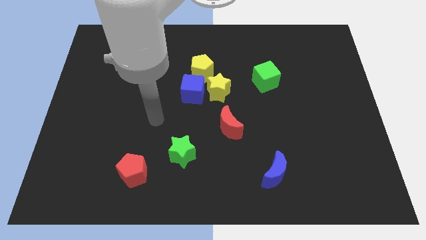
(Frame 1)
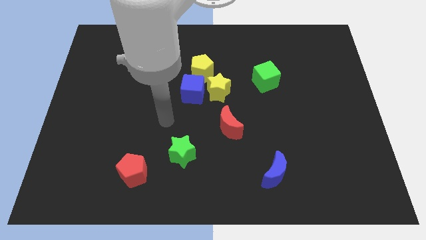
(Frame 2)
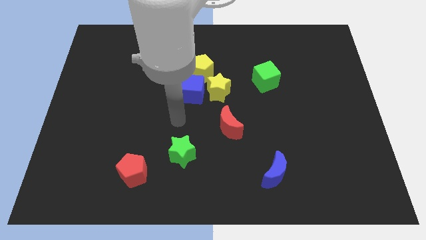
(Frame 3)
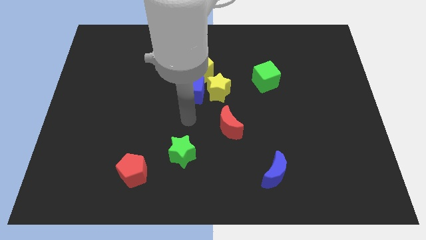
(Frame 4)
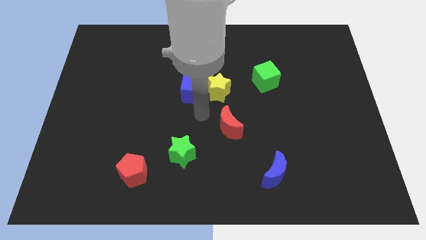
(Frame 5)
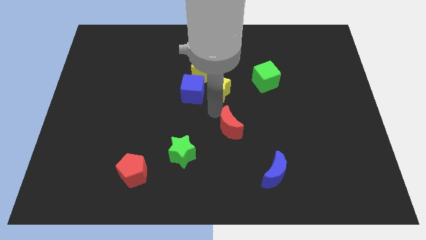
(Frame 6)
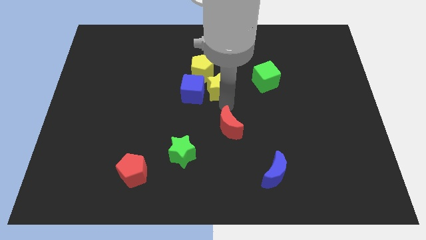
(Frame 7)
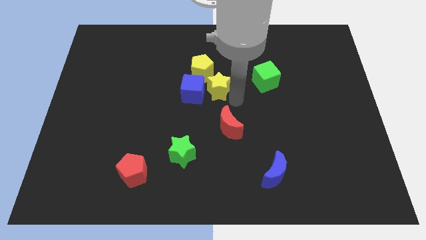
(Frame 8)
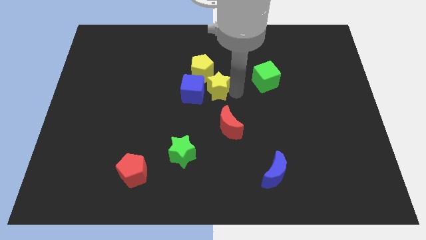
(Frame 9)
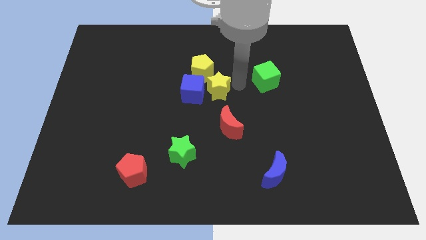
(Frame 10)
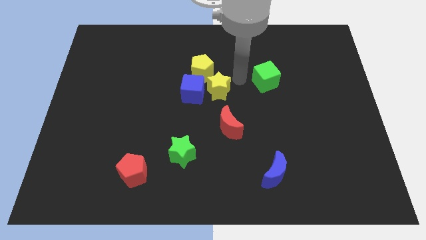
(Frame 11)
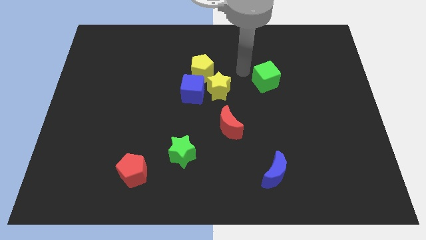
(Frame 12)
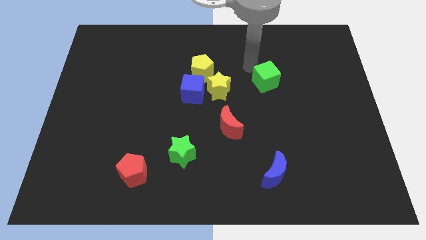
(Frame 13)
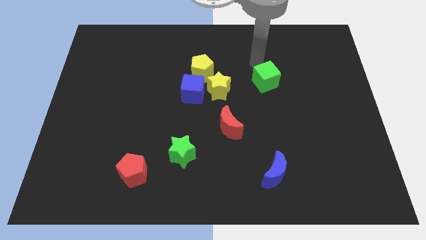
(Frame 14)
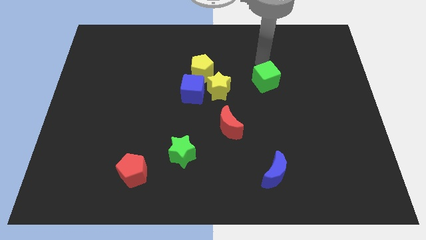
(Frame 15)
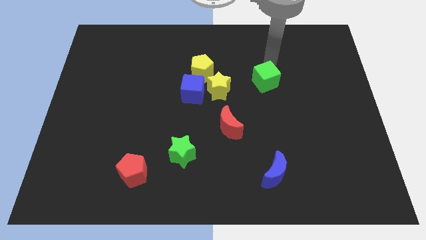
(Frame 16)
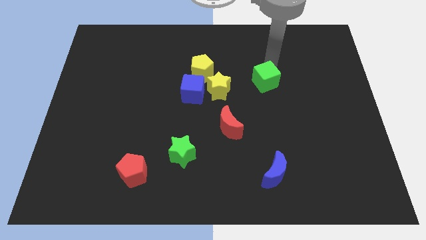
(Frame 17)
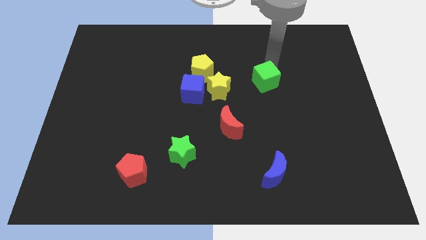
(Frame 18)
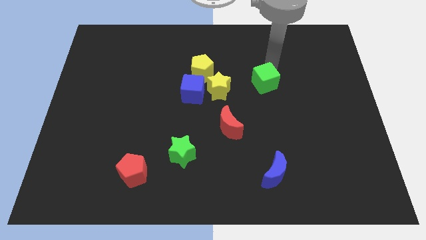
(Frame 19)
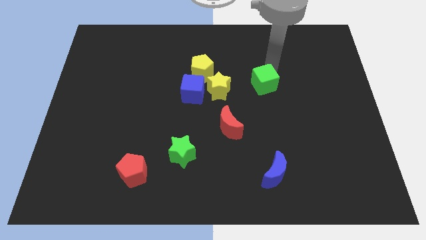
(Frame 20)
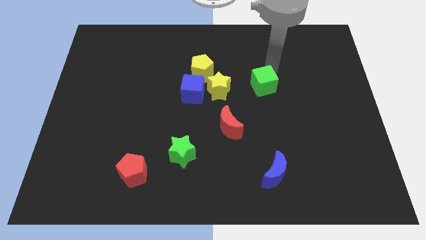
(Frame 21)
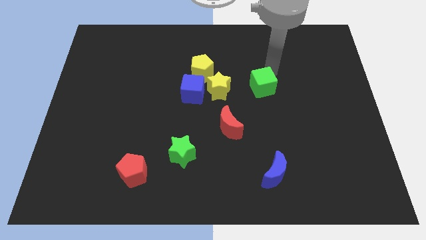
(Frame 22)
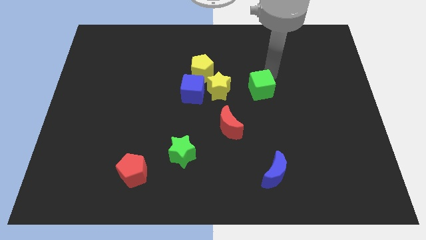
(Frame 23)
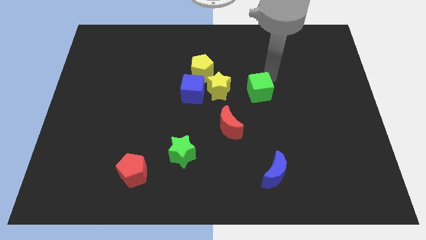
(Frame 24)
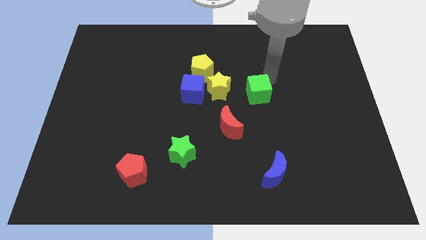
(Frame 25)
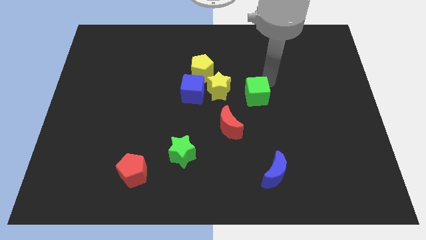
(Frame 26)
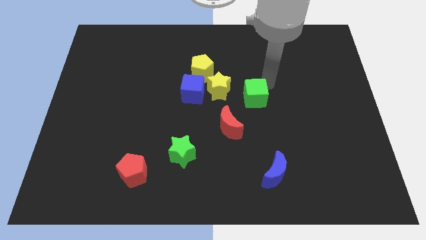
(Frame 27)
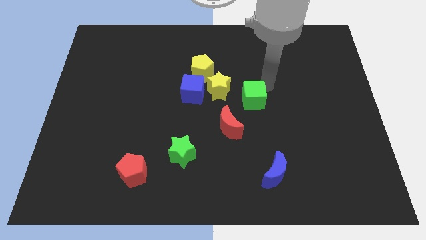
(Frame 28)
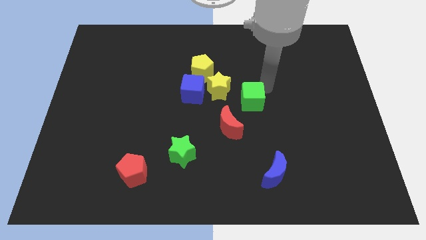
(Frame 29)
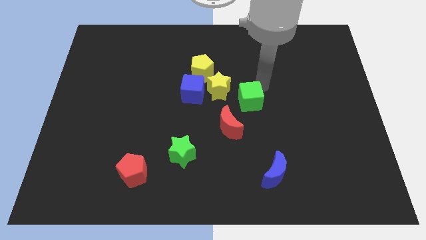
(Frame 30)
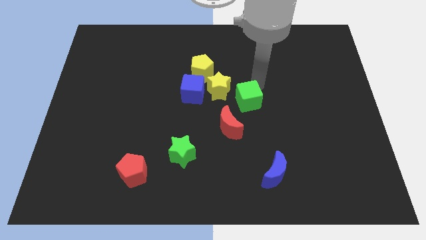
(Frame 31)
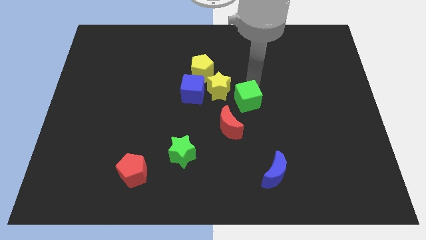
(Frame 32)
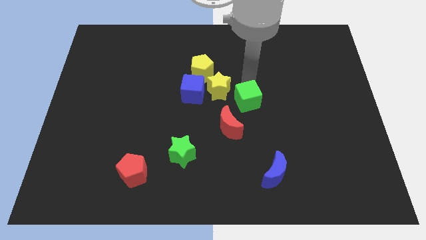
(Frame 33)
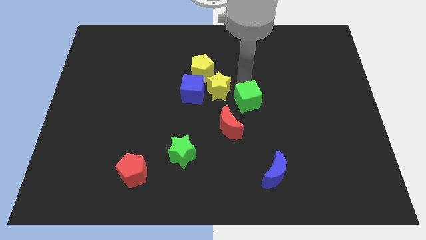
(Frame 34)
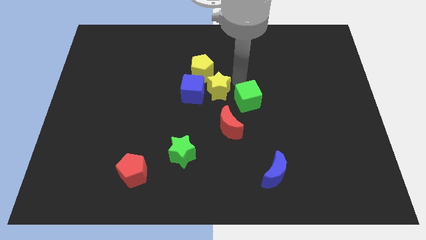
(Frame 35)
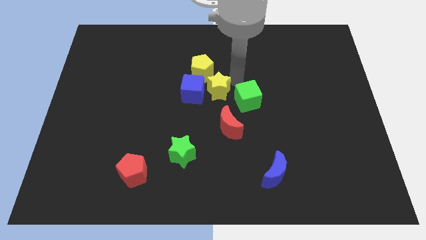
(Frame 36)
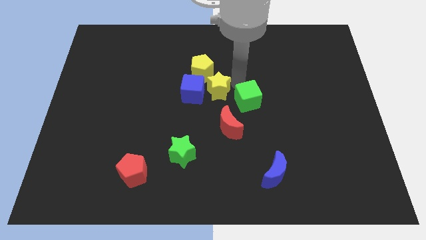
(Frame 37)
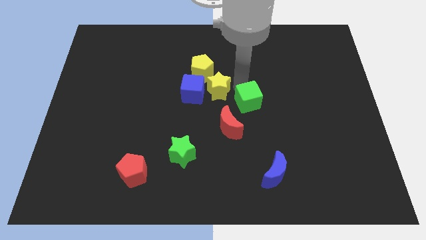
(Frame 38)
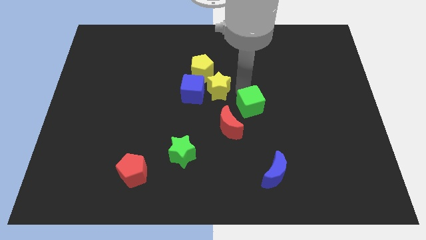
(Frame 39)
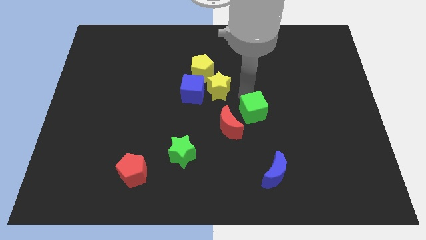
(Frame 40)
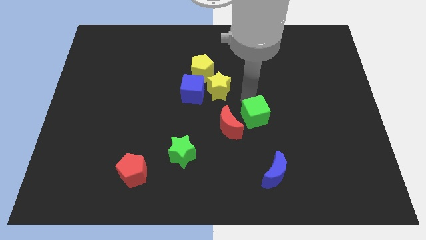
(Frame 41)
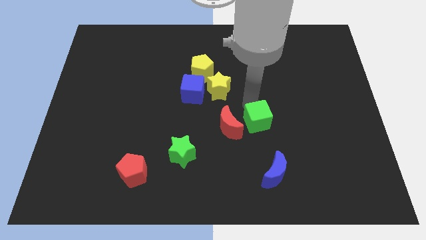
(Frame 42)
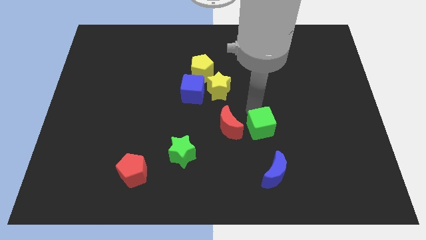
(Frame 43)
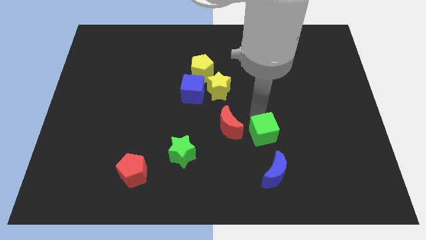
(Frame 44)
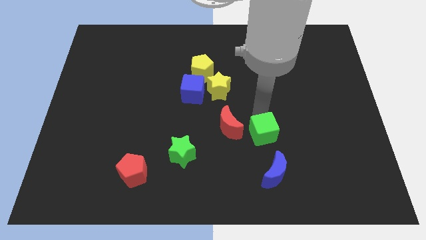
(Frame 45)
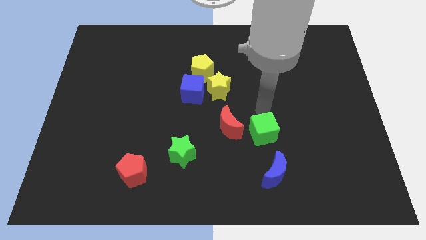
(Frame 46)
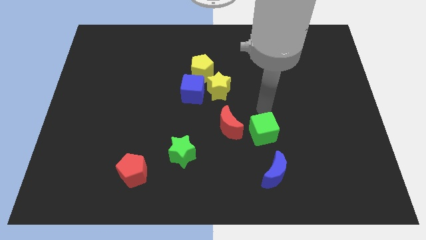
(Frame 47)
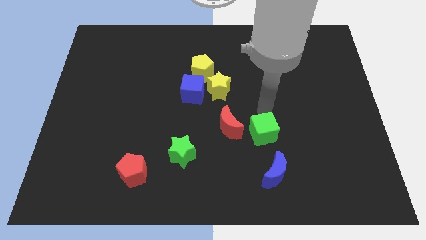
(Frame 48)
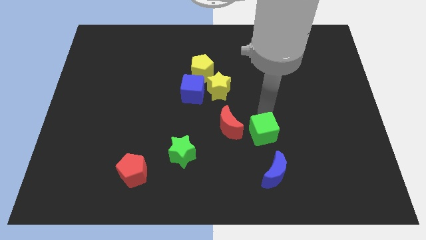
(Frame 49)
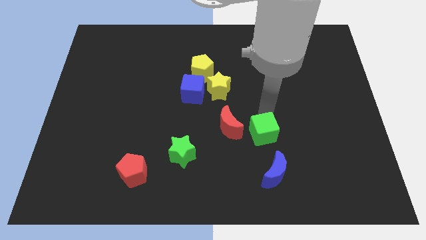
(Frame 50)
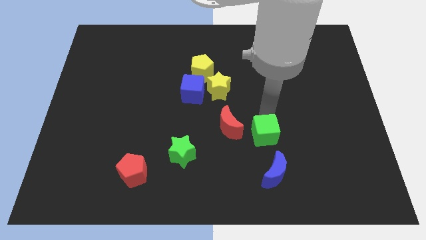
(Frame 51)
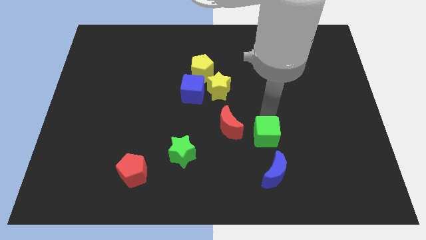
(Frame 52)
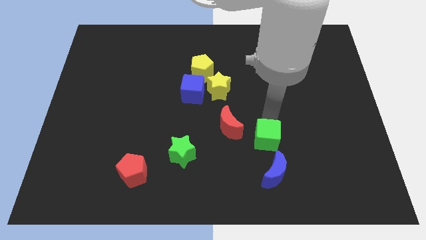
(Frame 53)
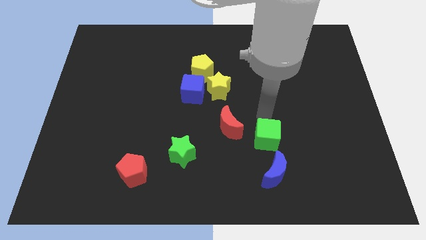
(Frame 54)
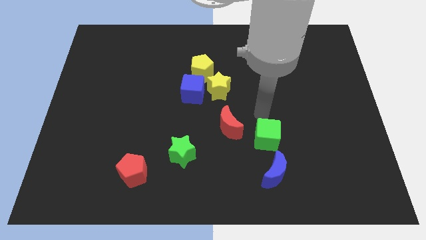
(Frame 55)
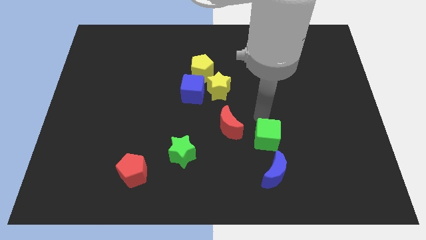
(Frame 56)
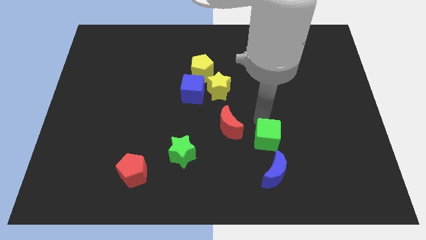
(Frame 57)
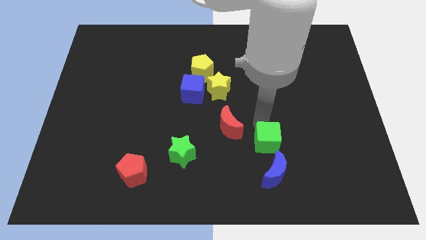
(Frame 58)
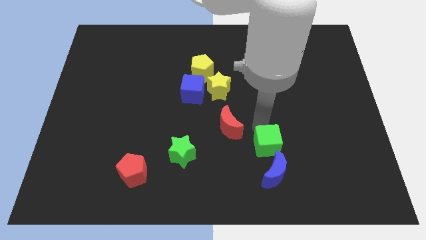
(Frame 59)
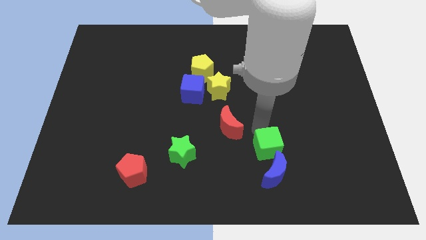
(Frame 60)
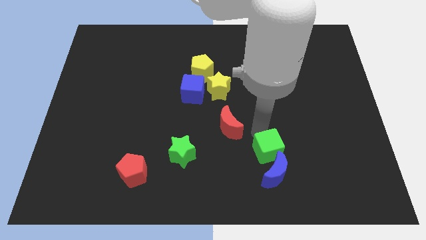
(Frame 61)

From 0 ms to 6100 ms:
push the green cube to the blue moon

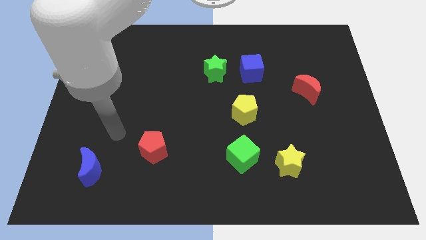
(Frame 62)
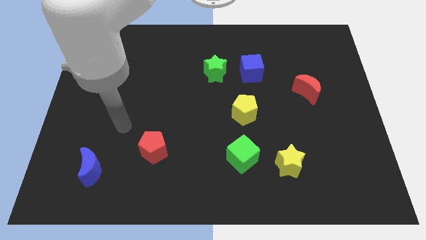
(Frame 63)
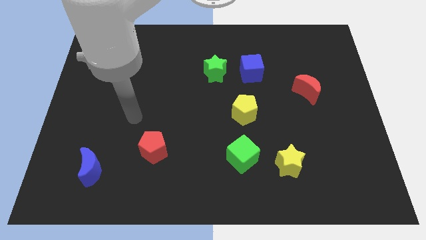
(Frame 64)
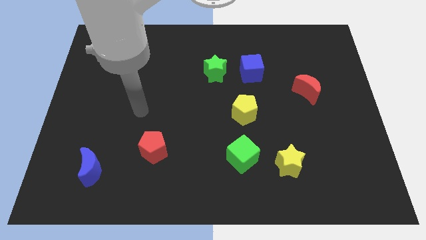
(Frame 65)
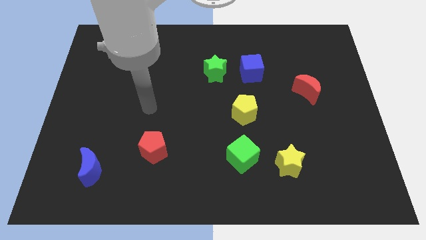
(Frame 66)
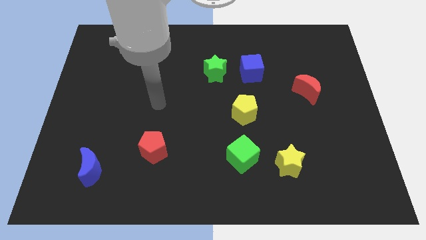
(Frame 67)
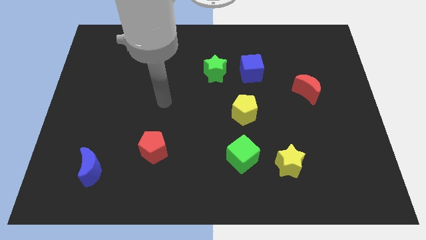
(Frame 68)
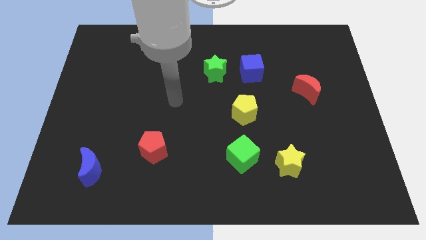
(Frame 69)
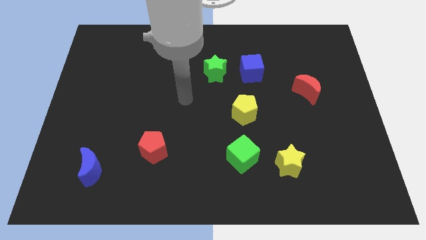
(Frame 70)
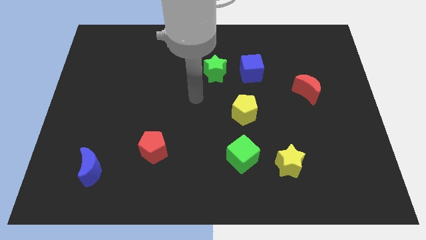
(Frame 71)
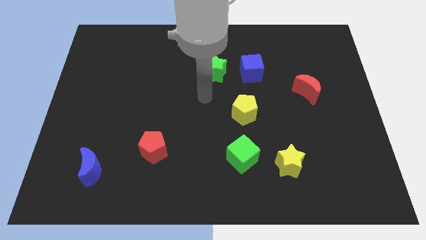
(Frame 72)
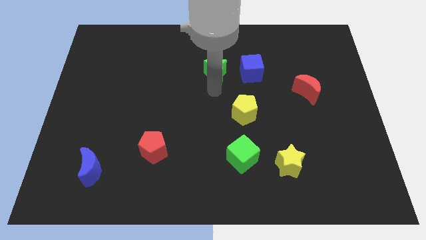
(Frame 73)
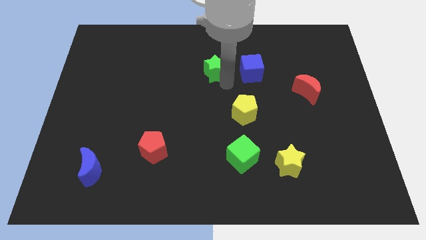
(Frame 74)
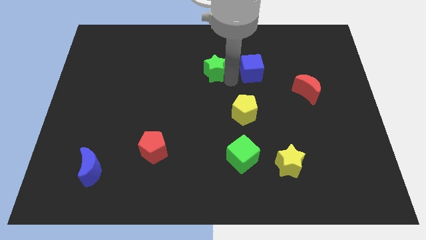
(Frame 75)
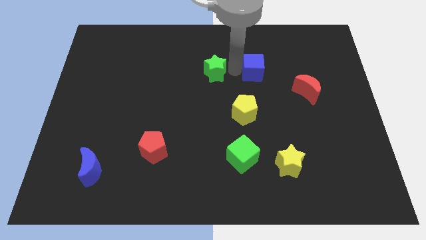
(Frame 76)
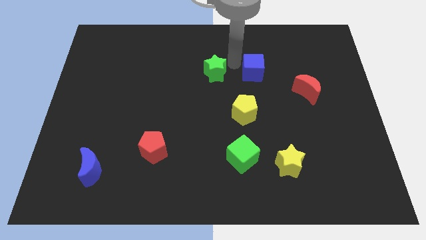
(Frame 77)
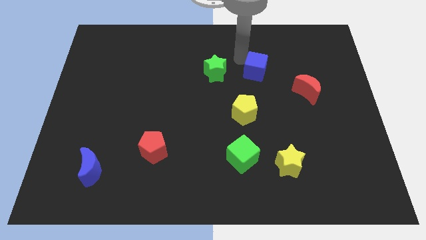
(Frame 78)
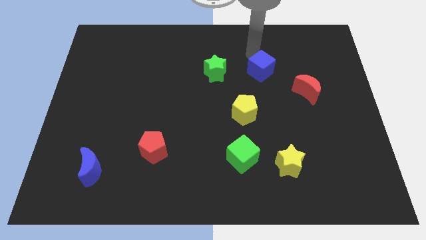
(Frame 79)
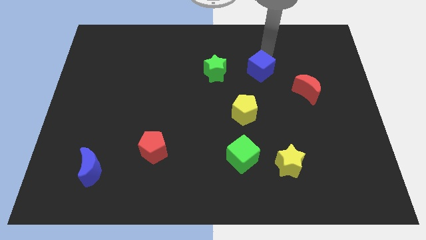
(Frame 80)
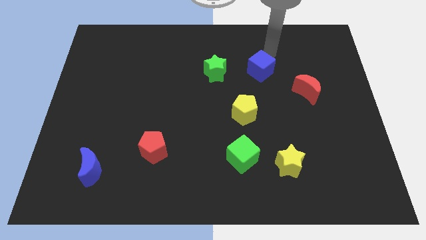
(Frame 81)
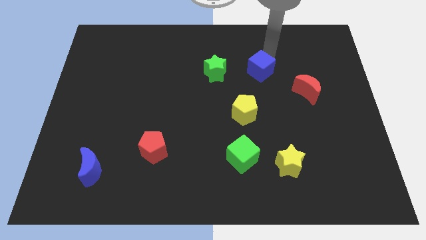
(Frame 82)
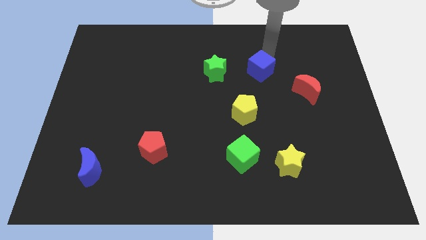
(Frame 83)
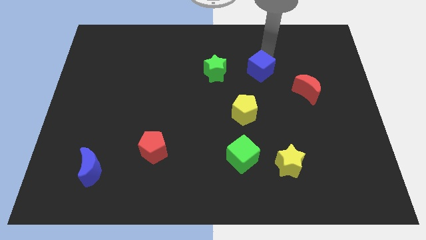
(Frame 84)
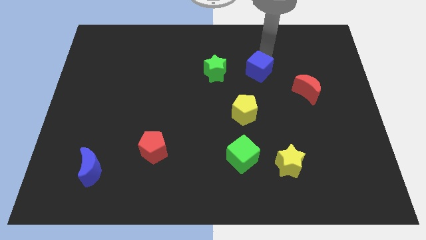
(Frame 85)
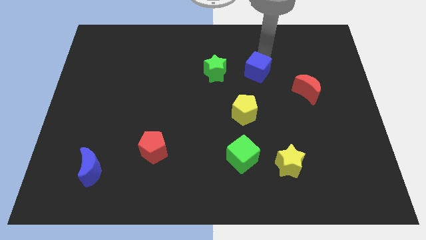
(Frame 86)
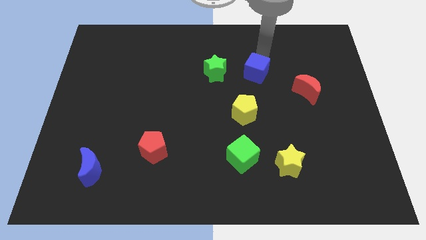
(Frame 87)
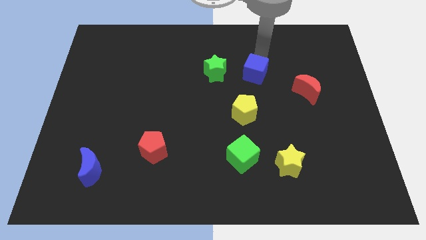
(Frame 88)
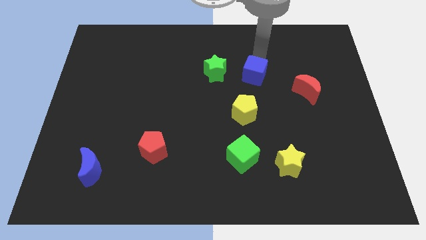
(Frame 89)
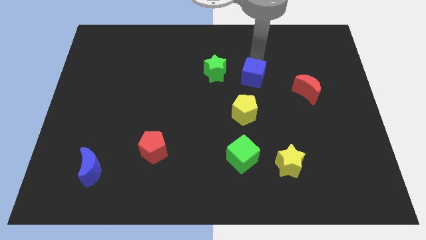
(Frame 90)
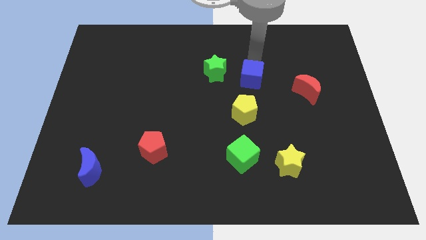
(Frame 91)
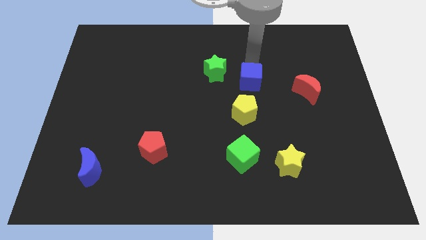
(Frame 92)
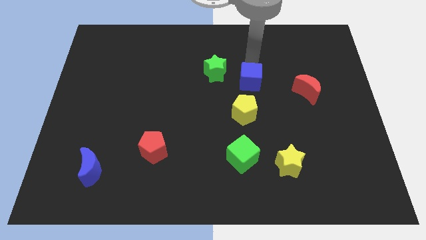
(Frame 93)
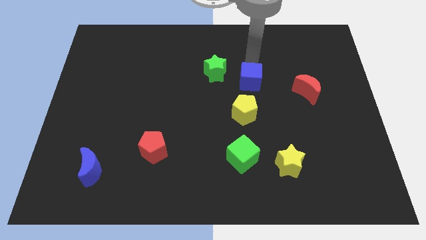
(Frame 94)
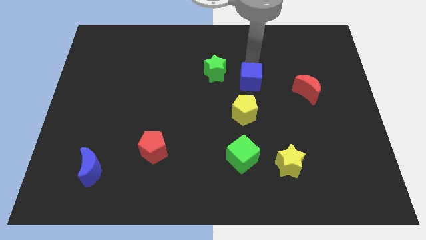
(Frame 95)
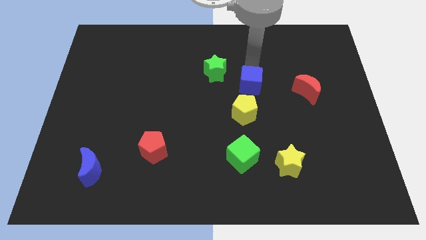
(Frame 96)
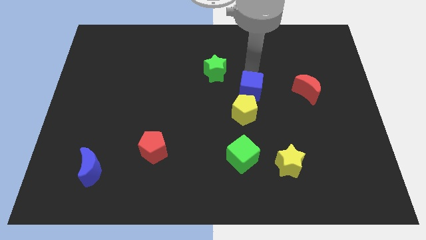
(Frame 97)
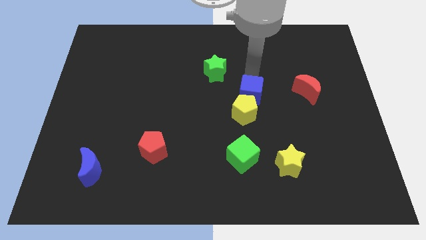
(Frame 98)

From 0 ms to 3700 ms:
put the blue cube to the yellow pentagon
